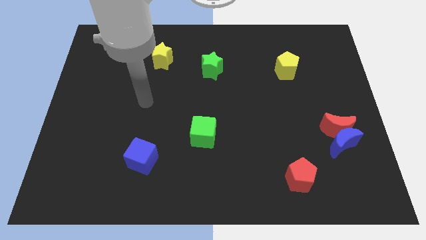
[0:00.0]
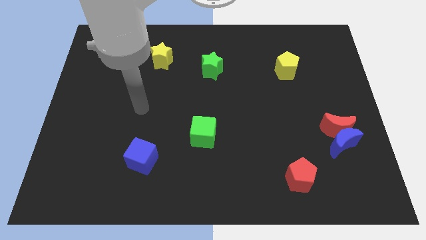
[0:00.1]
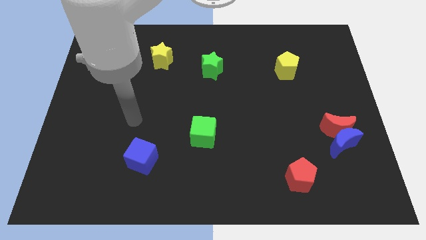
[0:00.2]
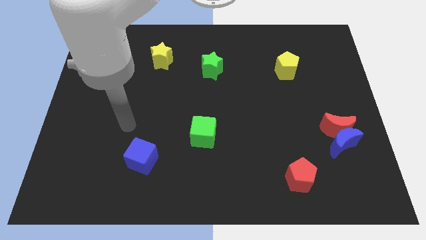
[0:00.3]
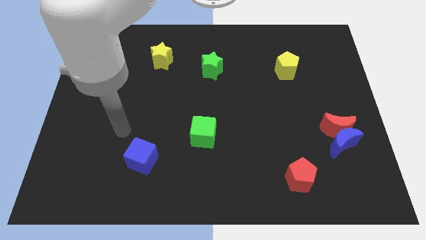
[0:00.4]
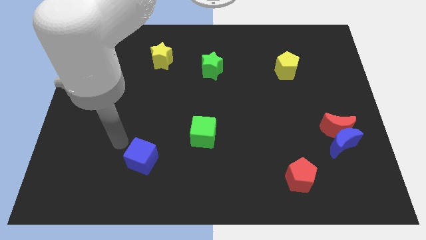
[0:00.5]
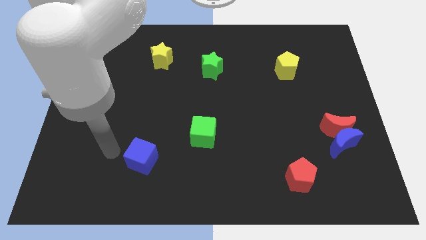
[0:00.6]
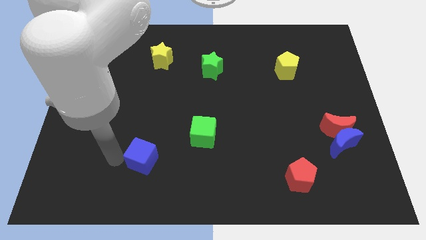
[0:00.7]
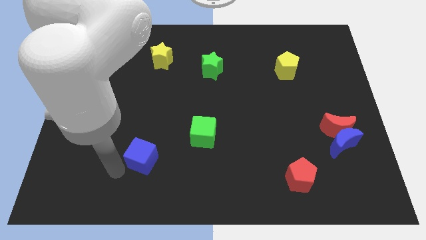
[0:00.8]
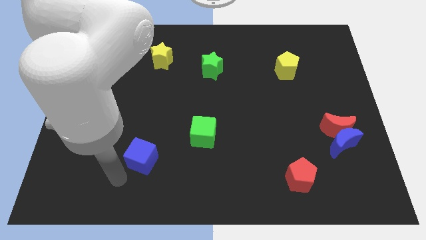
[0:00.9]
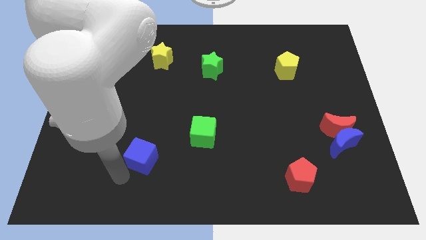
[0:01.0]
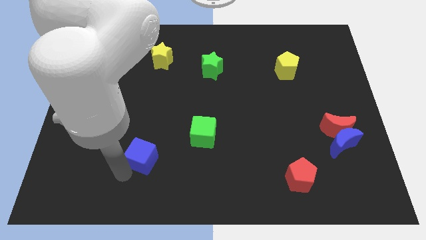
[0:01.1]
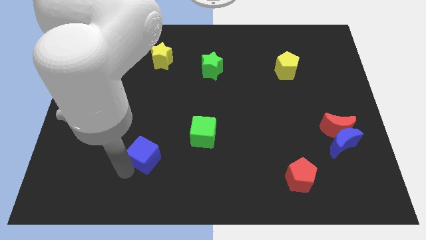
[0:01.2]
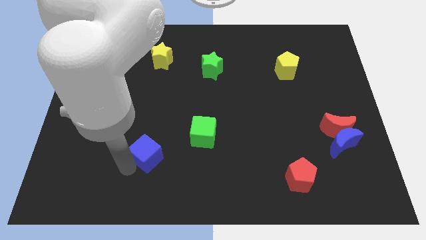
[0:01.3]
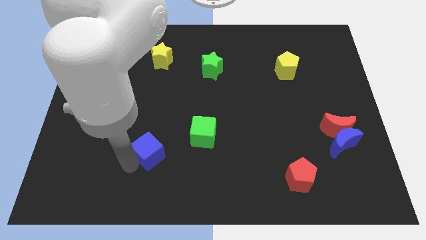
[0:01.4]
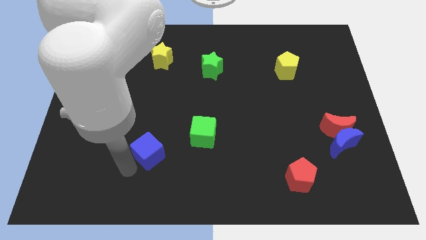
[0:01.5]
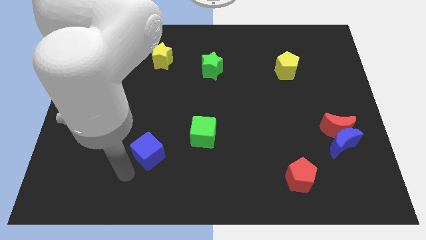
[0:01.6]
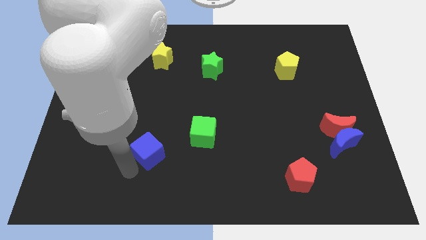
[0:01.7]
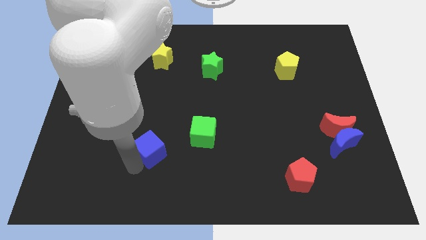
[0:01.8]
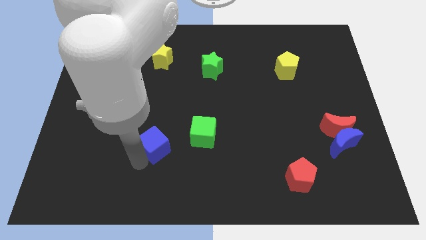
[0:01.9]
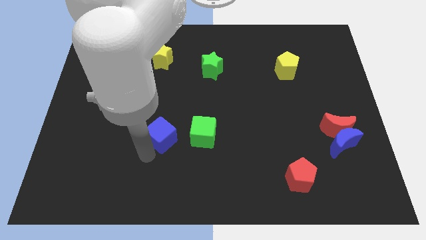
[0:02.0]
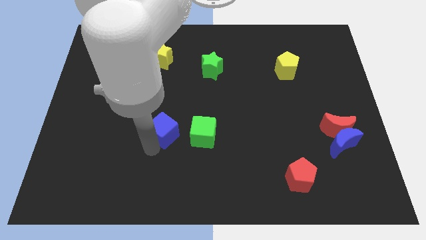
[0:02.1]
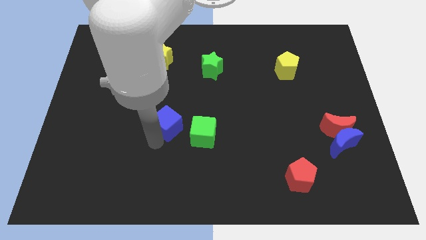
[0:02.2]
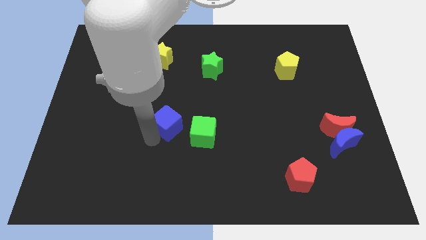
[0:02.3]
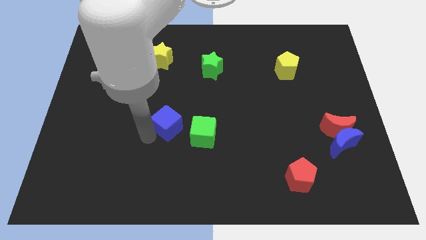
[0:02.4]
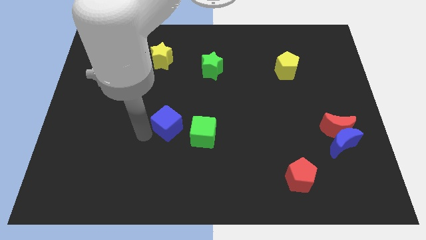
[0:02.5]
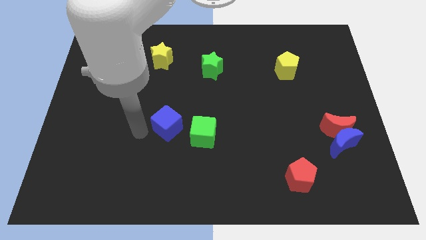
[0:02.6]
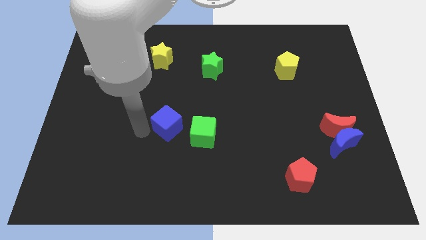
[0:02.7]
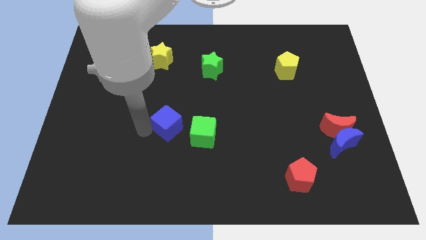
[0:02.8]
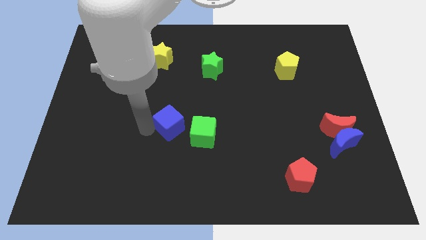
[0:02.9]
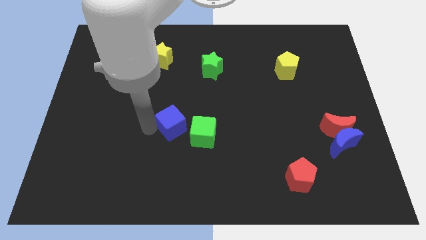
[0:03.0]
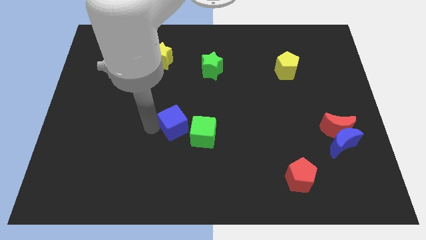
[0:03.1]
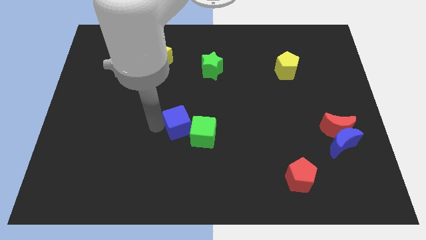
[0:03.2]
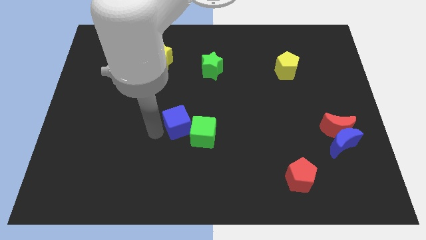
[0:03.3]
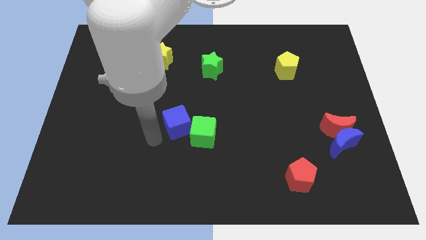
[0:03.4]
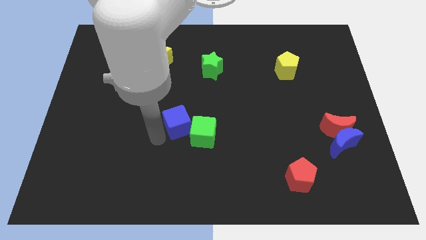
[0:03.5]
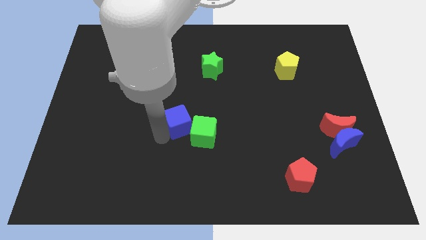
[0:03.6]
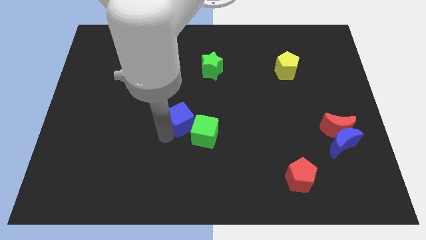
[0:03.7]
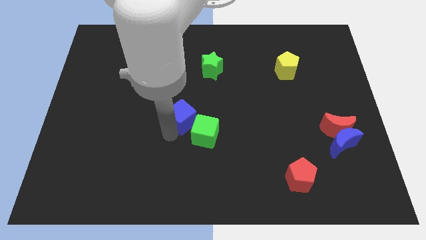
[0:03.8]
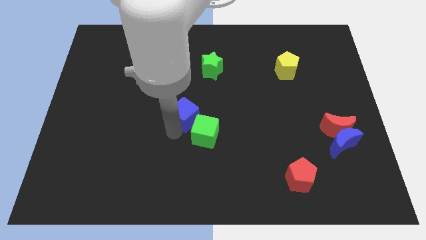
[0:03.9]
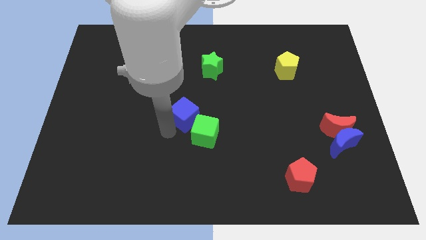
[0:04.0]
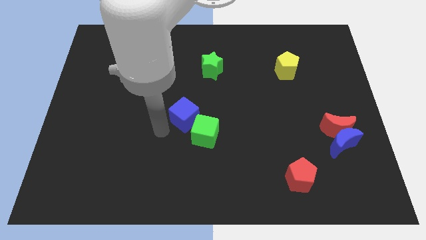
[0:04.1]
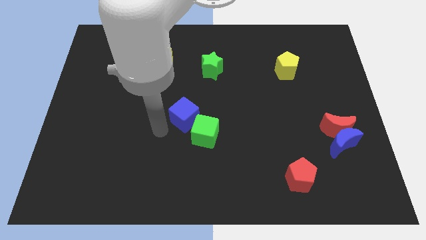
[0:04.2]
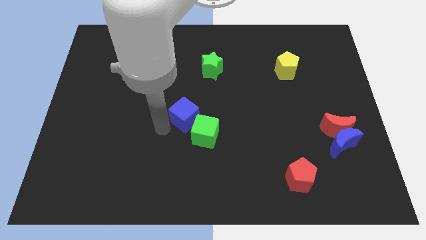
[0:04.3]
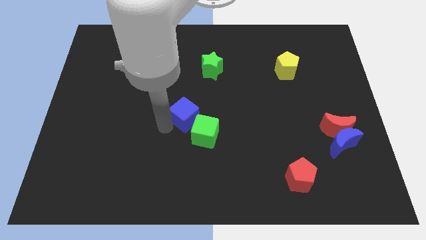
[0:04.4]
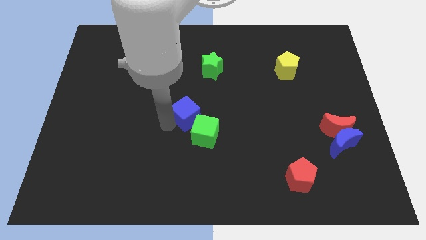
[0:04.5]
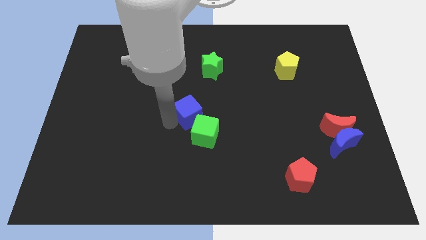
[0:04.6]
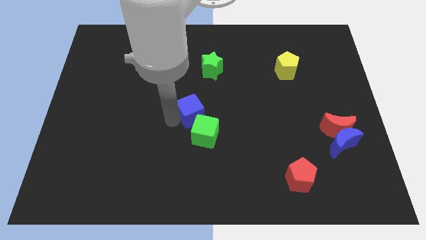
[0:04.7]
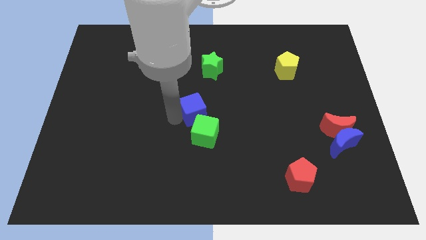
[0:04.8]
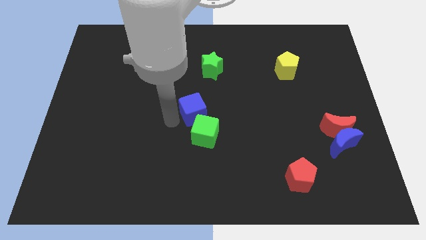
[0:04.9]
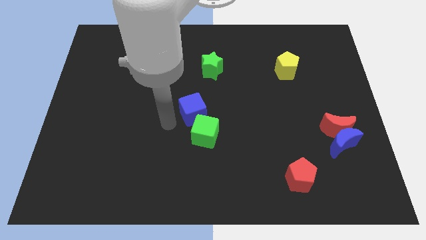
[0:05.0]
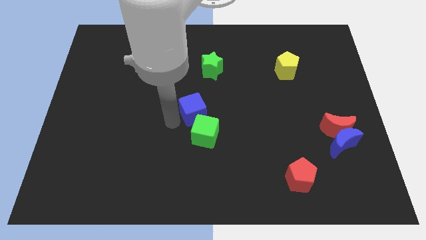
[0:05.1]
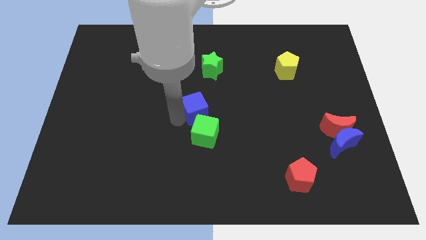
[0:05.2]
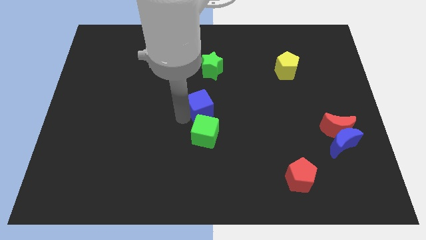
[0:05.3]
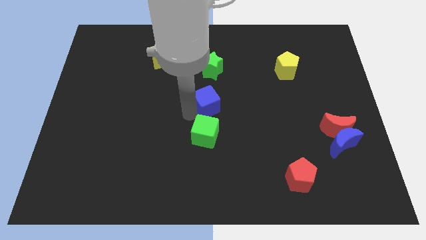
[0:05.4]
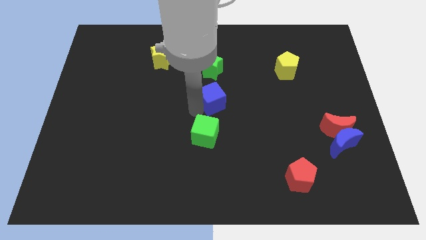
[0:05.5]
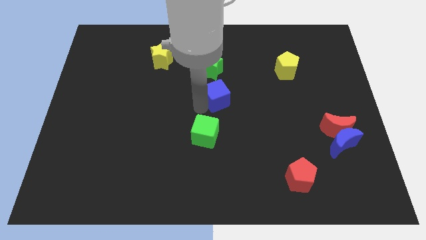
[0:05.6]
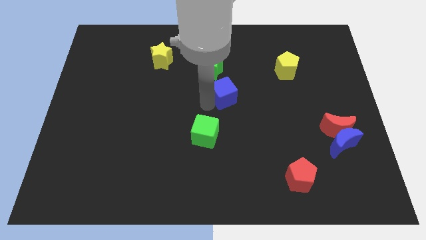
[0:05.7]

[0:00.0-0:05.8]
slide the blue cube diagonally down and to the right of the green star
